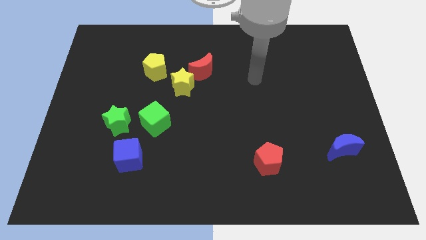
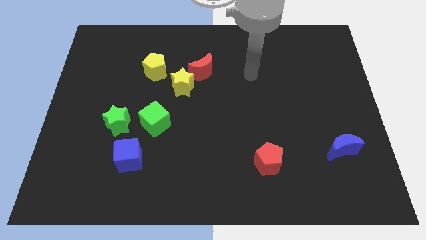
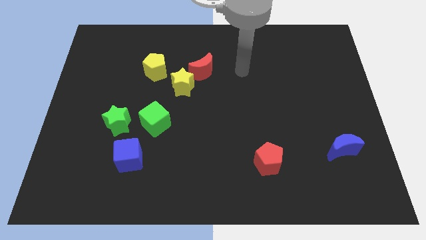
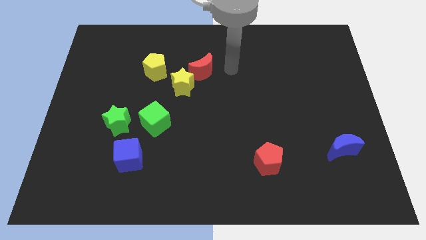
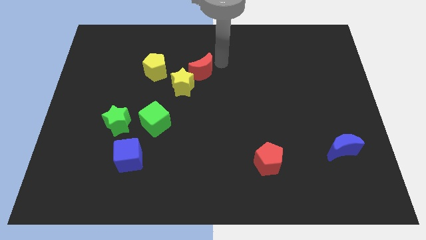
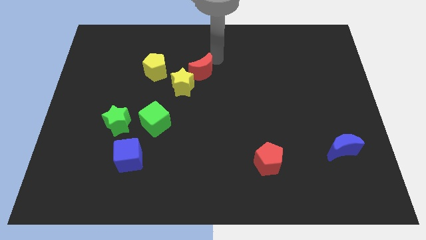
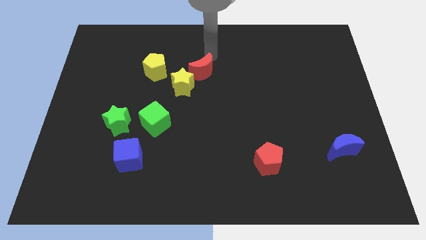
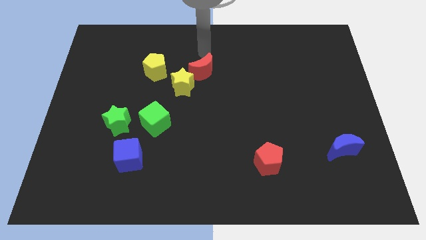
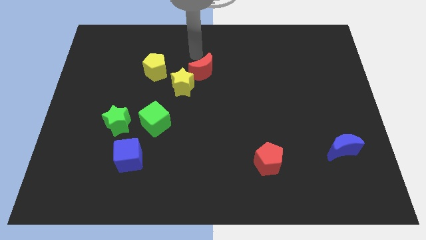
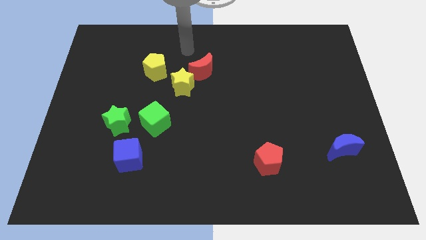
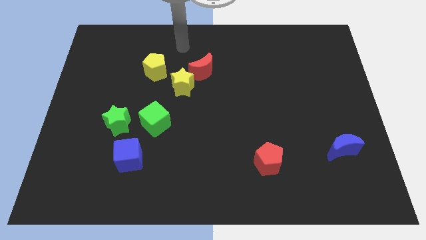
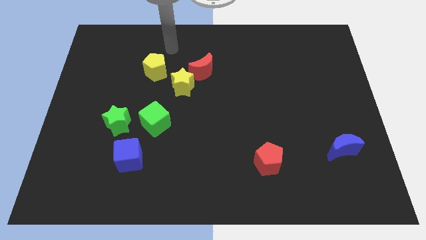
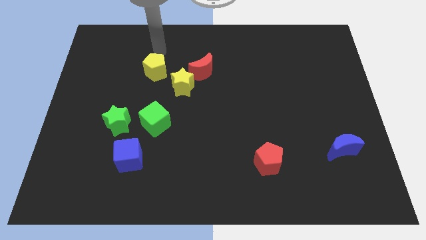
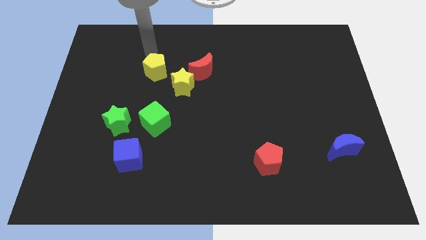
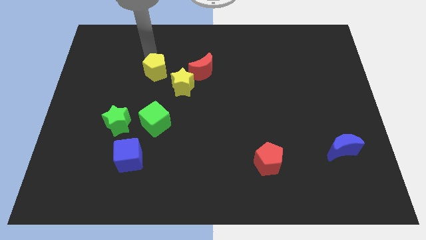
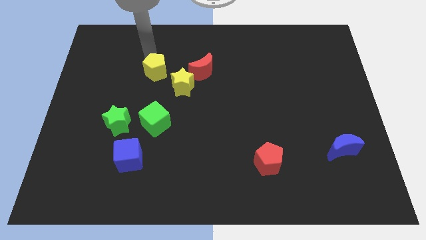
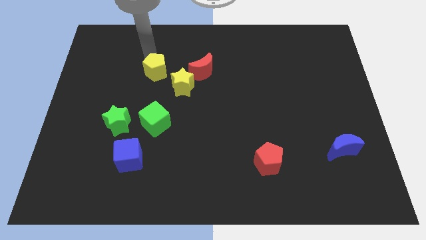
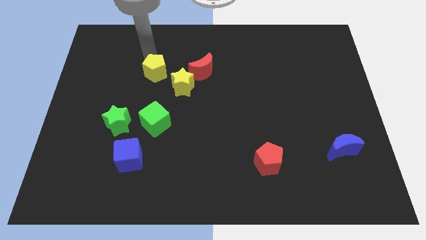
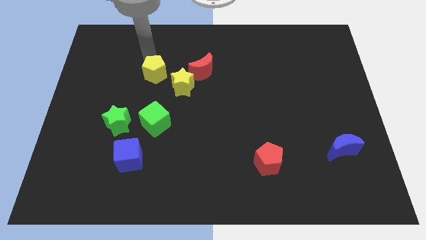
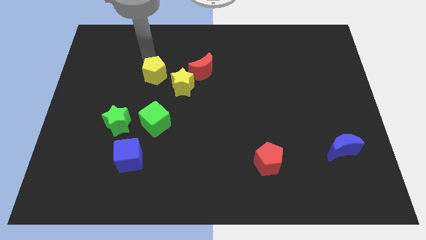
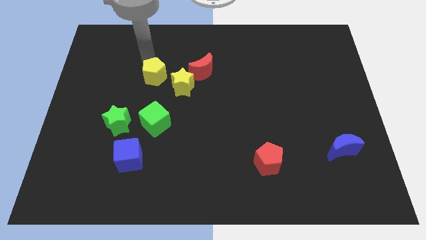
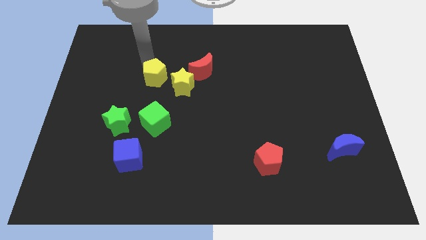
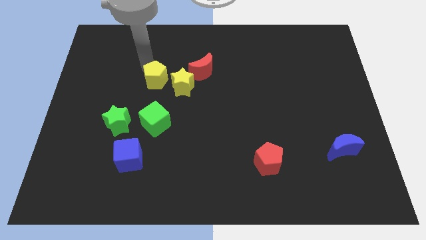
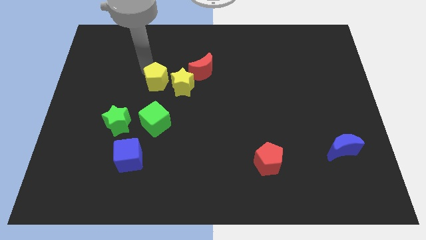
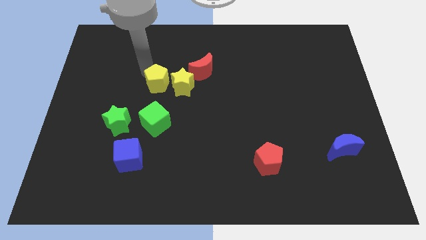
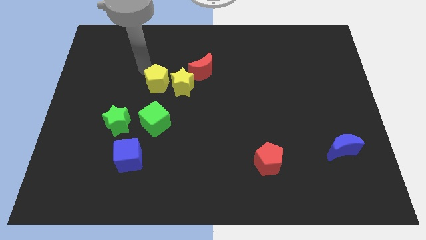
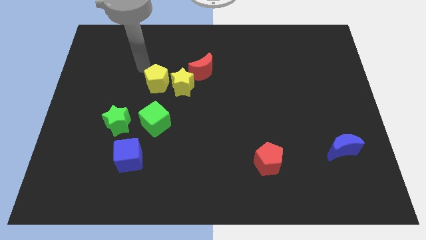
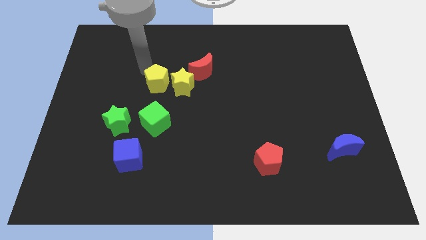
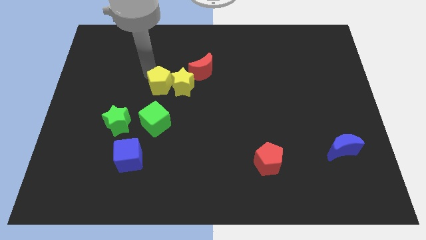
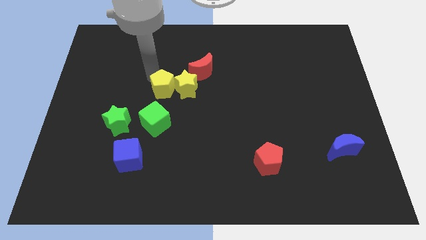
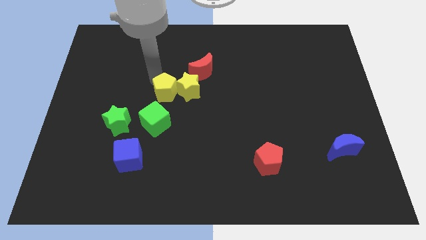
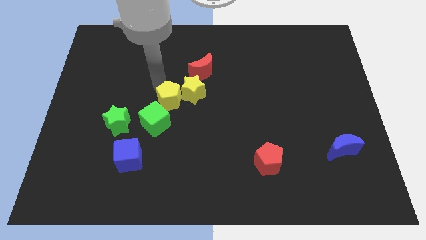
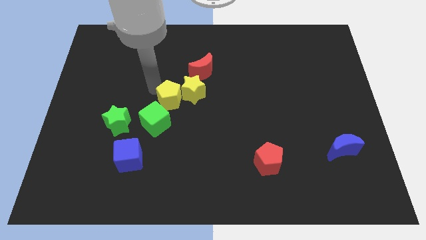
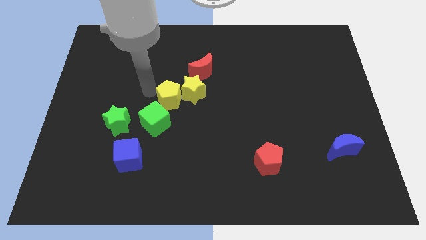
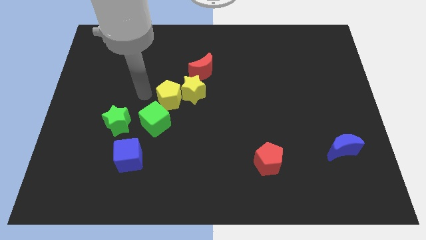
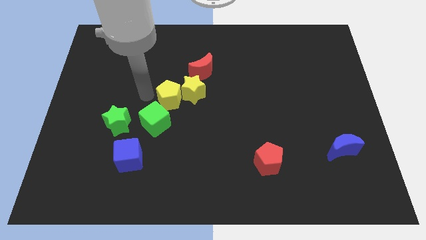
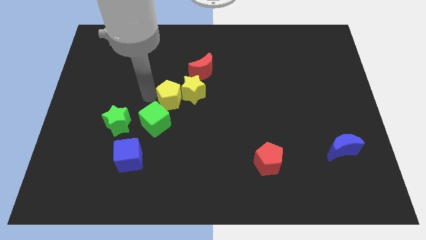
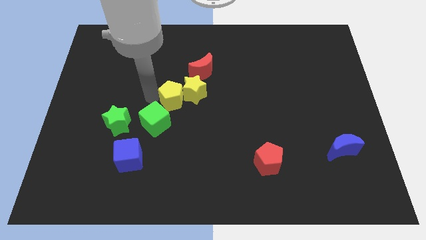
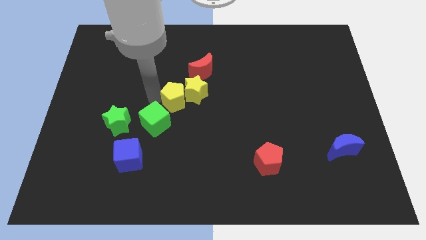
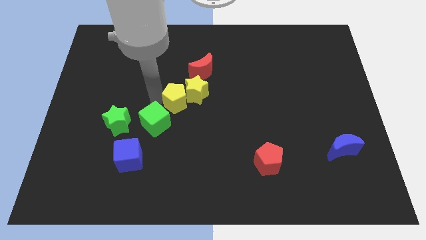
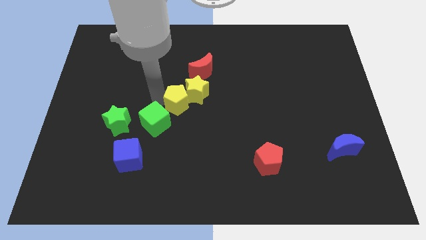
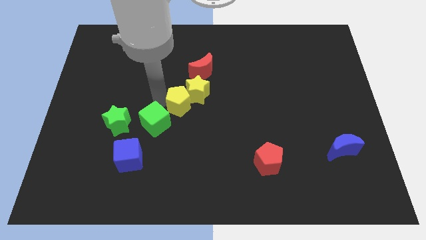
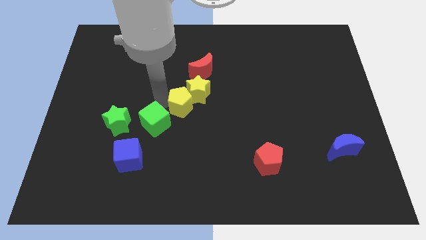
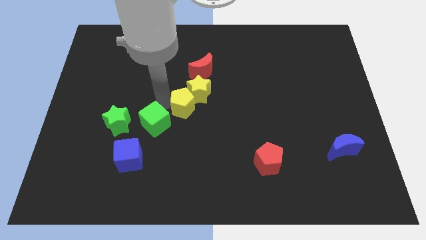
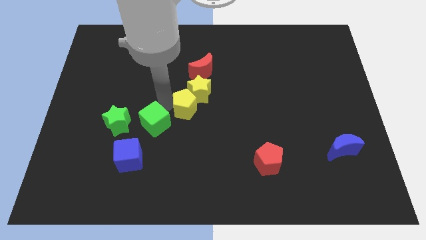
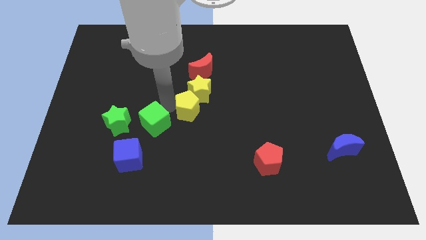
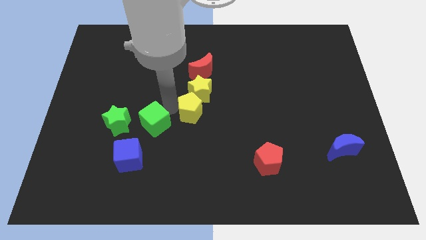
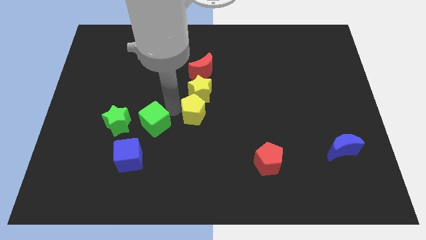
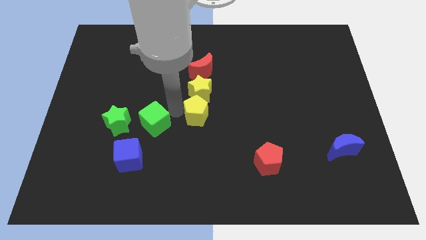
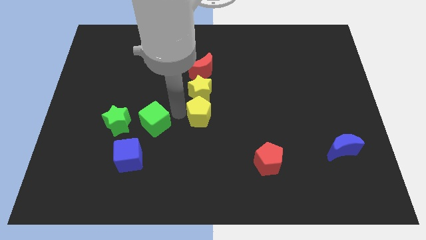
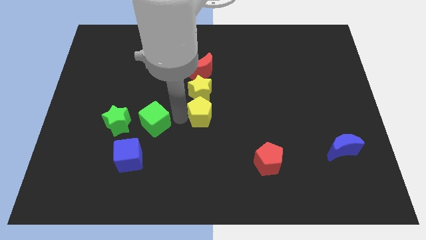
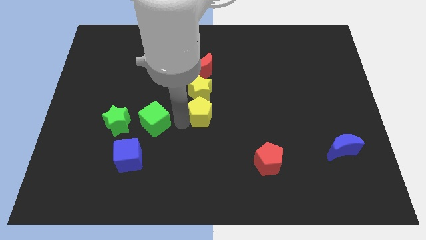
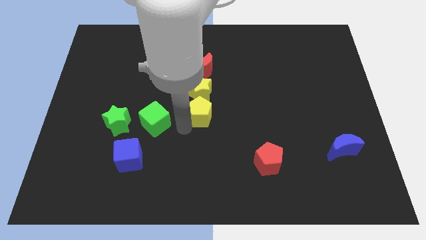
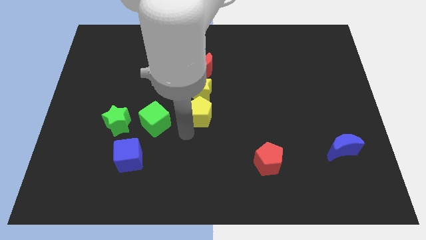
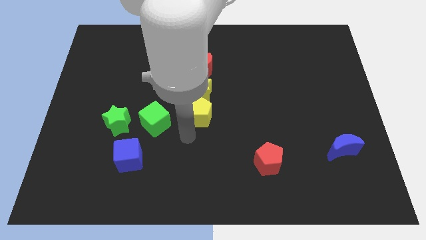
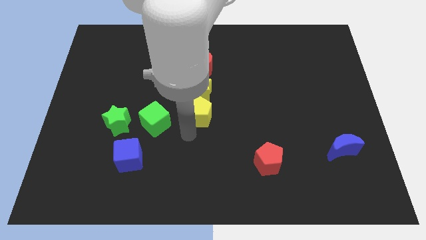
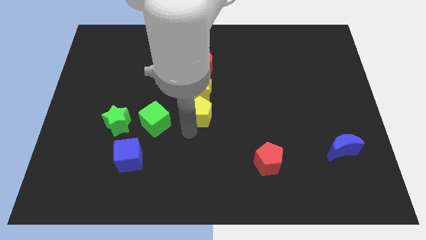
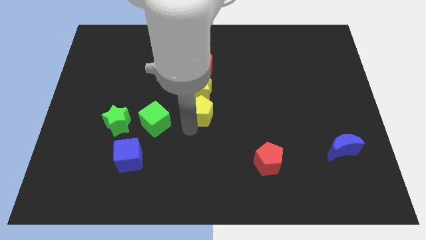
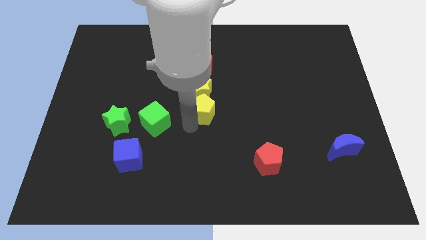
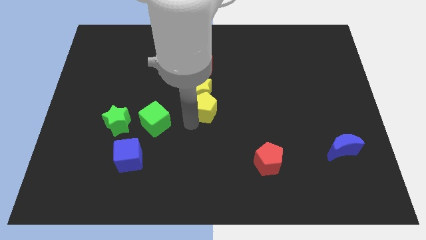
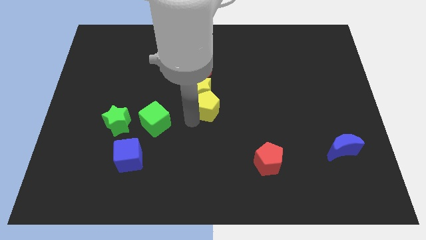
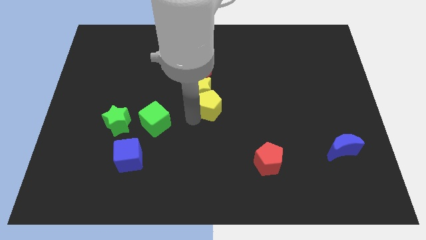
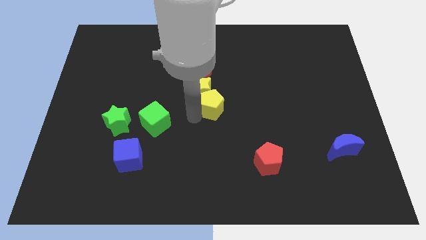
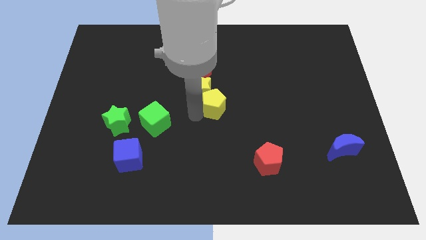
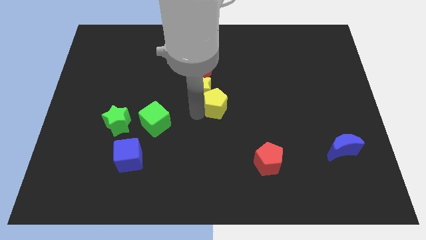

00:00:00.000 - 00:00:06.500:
slide the yellow pentagon right of the yellow star
